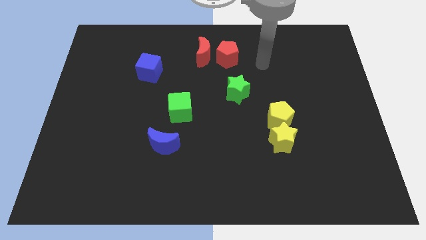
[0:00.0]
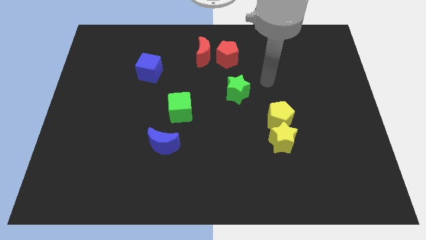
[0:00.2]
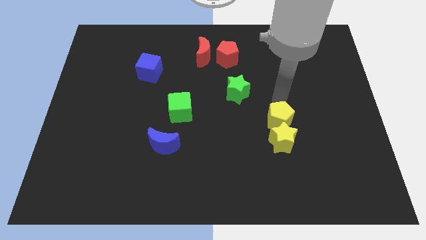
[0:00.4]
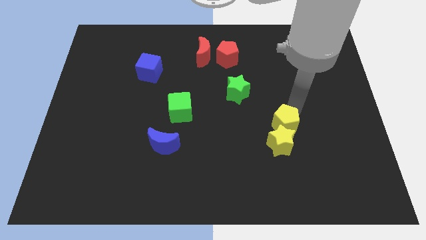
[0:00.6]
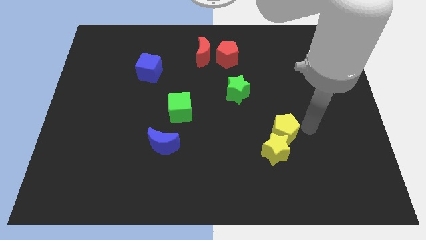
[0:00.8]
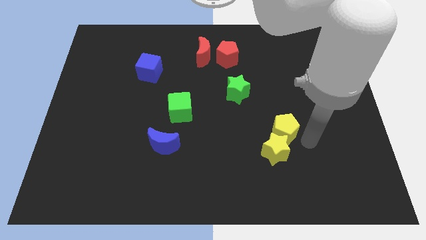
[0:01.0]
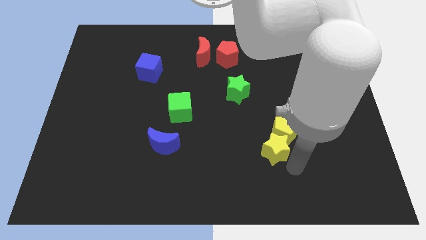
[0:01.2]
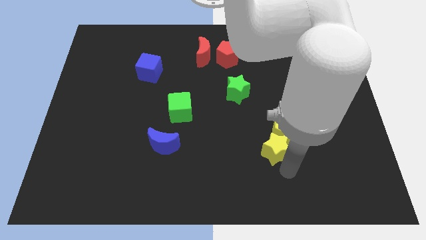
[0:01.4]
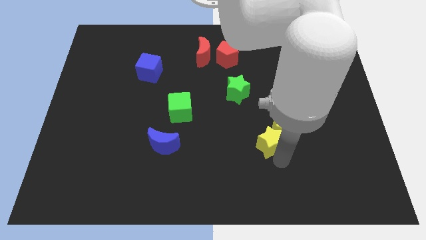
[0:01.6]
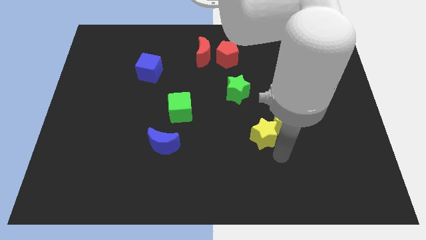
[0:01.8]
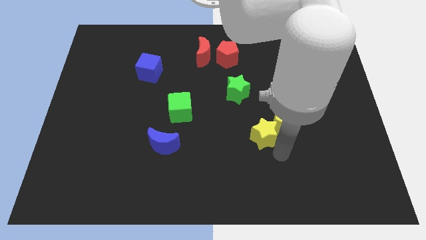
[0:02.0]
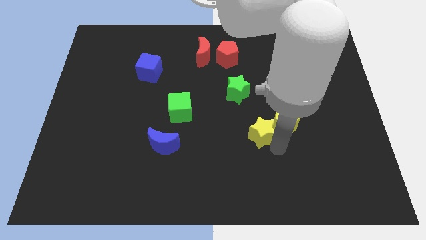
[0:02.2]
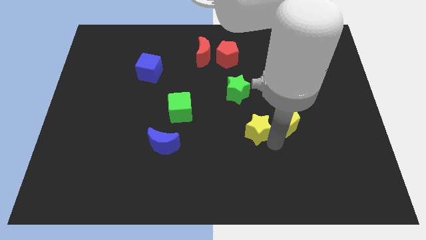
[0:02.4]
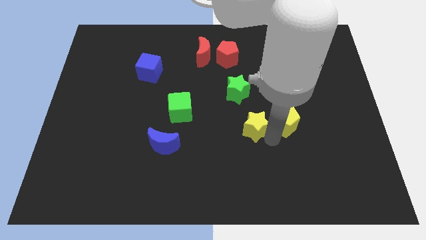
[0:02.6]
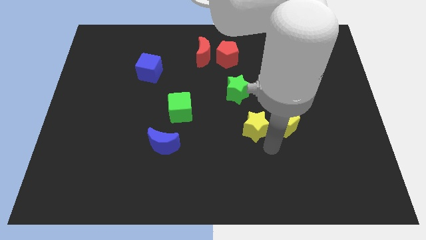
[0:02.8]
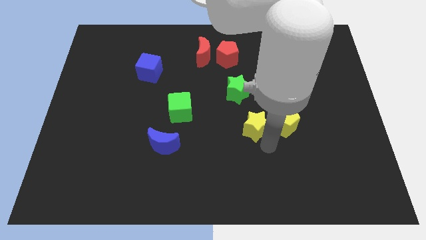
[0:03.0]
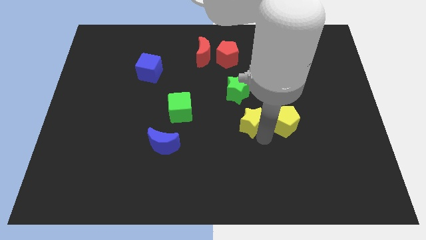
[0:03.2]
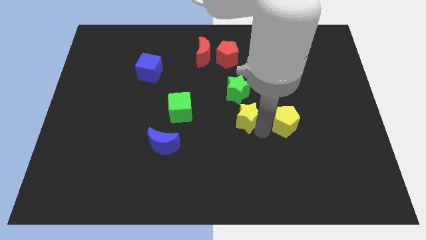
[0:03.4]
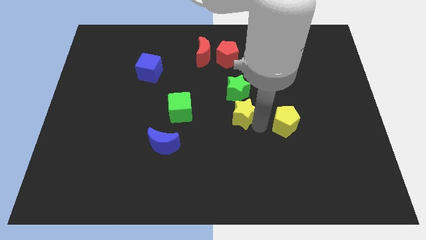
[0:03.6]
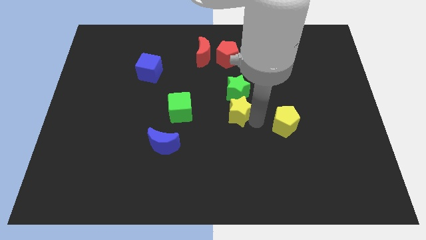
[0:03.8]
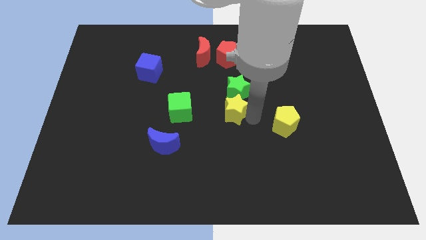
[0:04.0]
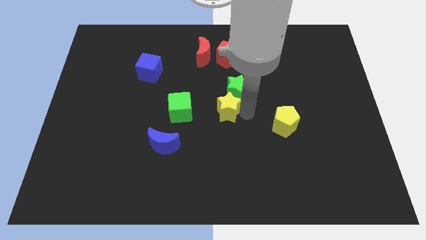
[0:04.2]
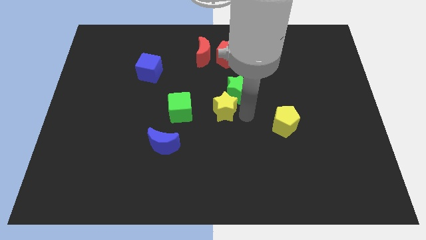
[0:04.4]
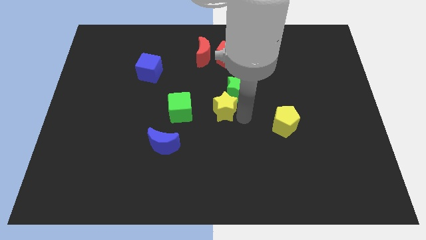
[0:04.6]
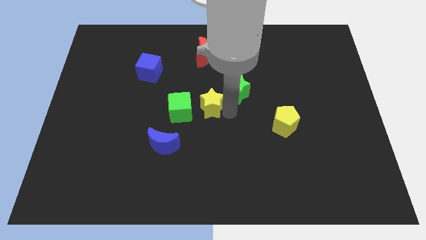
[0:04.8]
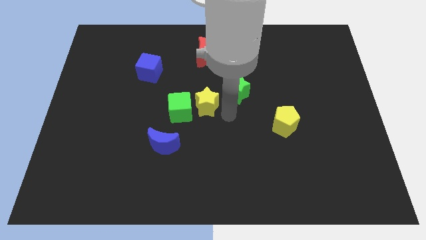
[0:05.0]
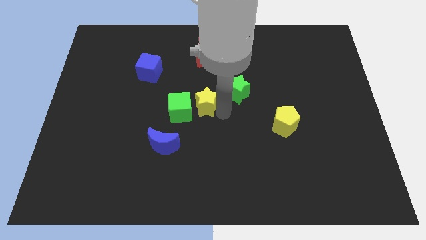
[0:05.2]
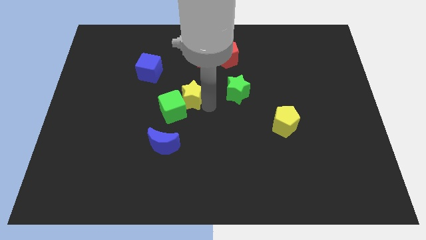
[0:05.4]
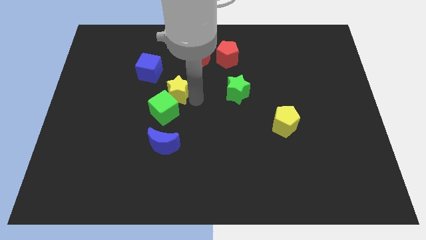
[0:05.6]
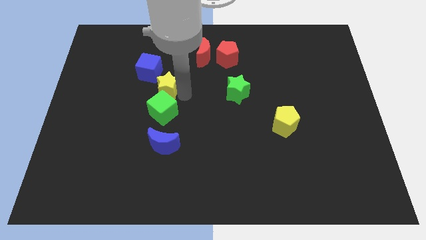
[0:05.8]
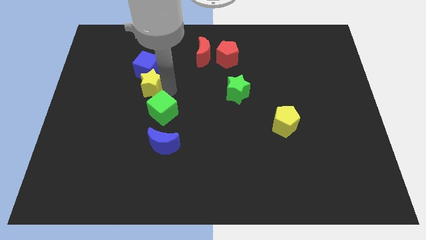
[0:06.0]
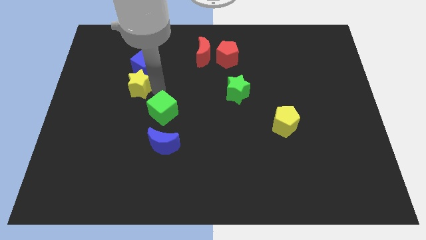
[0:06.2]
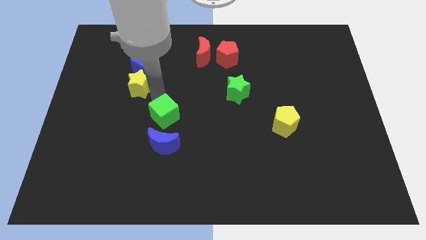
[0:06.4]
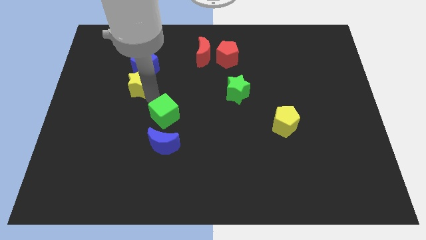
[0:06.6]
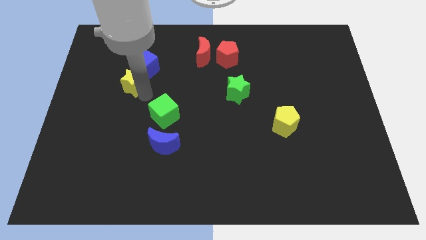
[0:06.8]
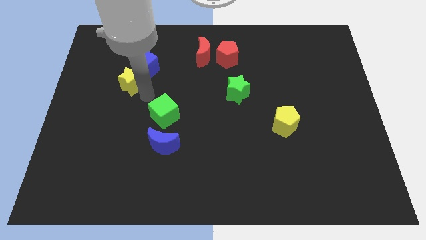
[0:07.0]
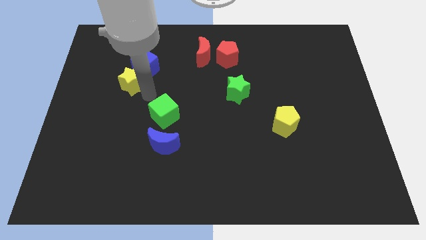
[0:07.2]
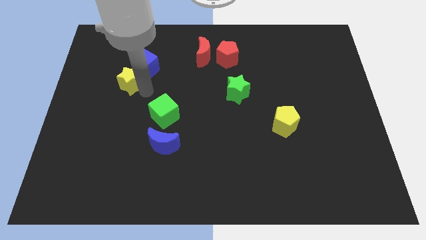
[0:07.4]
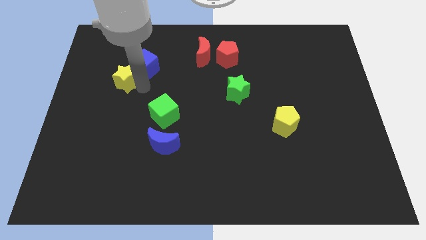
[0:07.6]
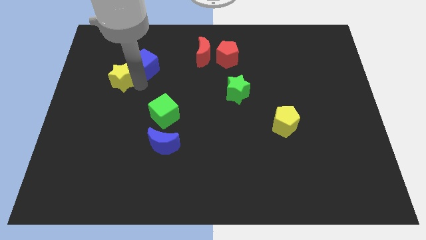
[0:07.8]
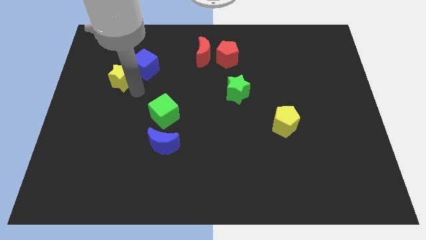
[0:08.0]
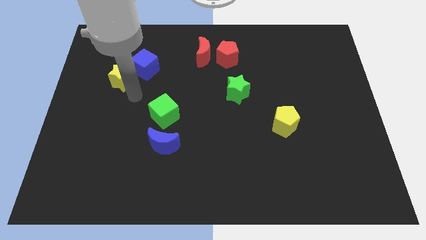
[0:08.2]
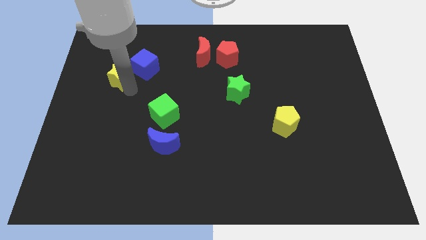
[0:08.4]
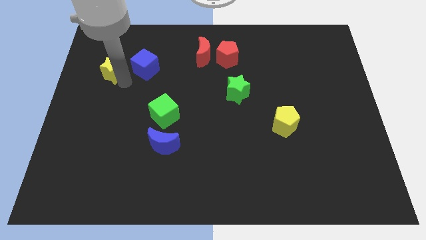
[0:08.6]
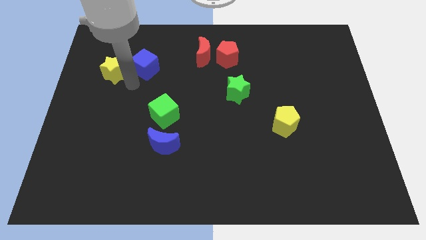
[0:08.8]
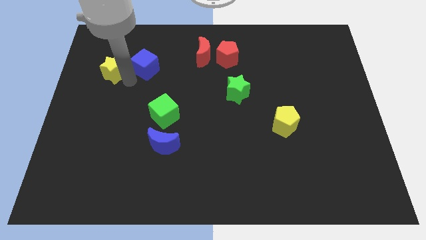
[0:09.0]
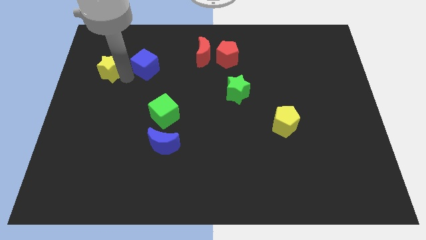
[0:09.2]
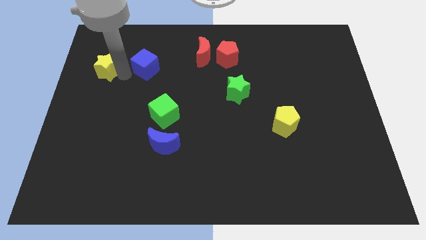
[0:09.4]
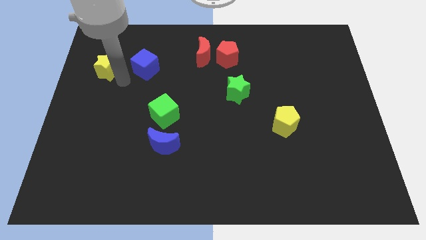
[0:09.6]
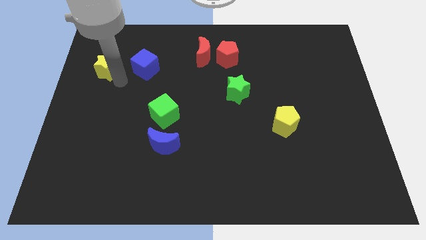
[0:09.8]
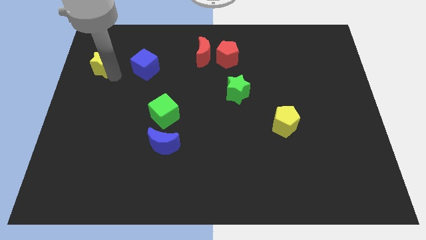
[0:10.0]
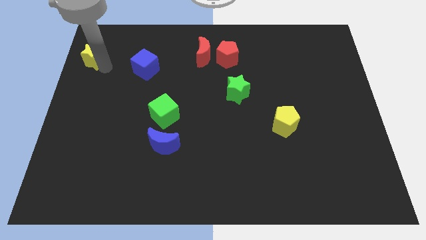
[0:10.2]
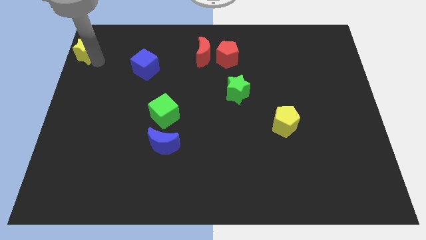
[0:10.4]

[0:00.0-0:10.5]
slide the yellow star to the top left corner

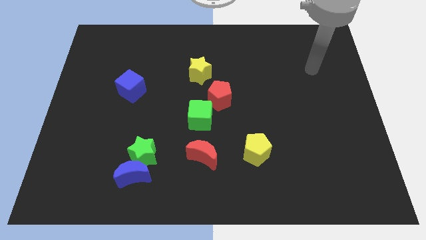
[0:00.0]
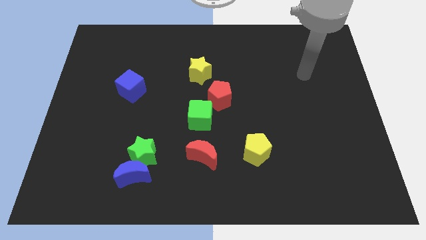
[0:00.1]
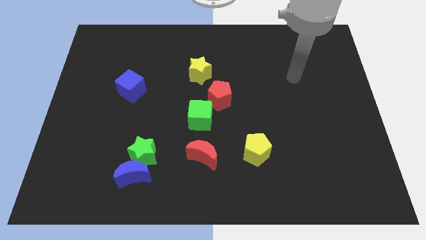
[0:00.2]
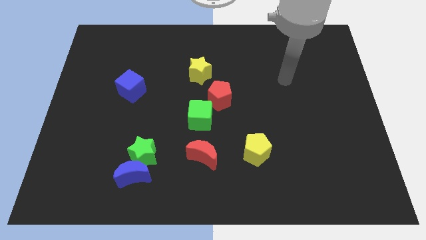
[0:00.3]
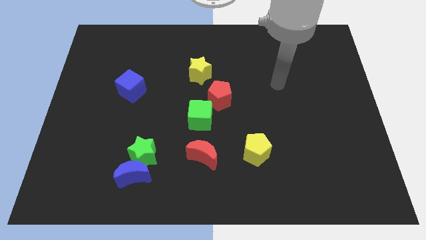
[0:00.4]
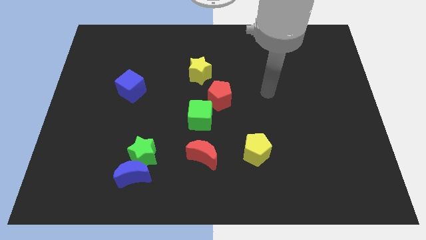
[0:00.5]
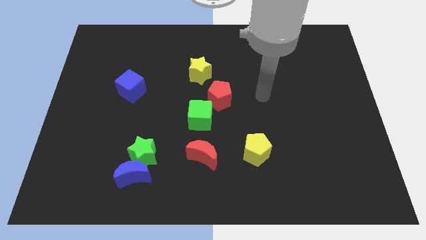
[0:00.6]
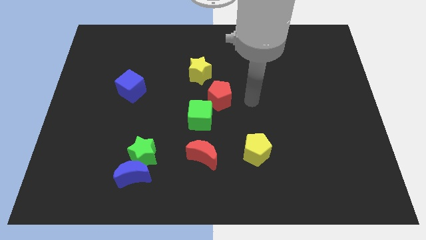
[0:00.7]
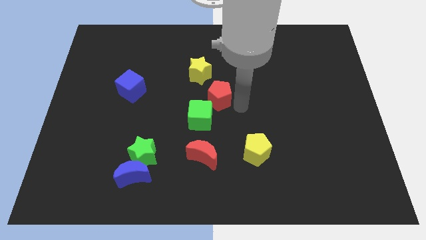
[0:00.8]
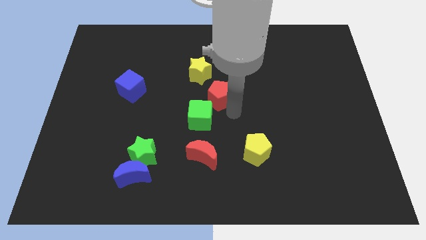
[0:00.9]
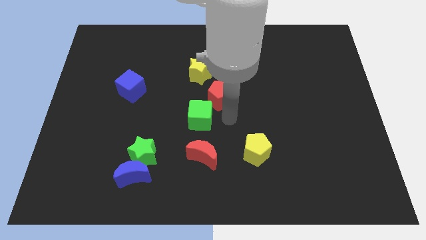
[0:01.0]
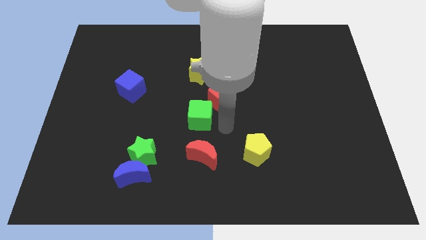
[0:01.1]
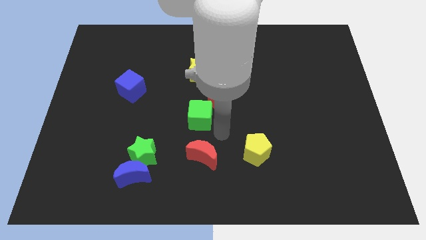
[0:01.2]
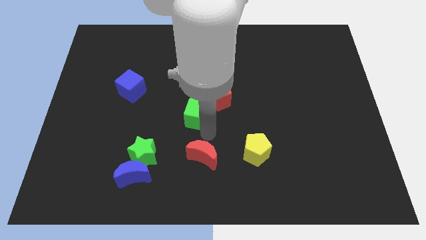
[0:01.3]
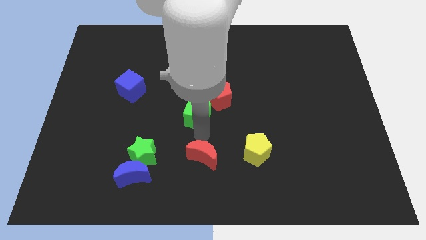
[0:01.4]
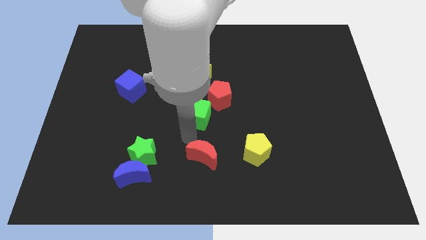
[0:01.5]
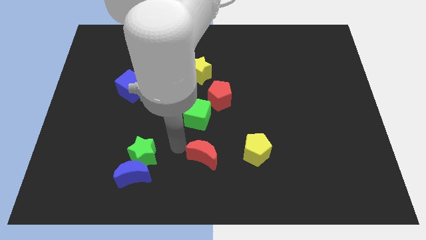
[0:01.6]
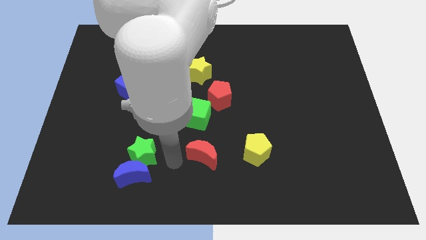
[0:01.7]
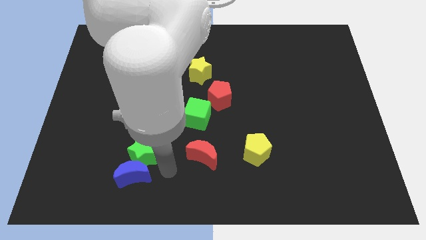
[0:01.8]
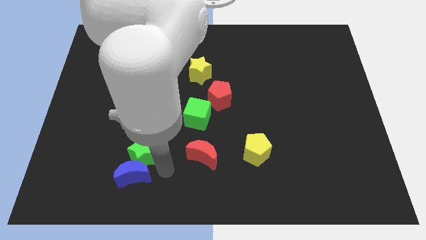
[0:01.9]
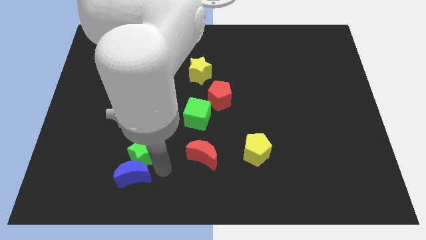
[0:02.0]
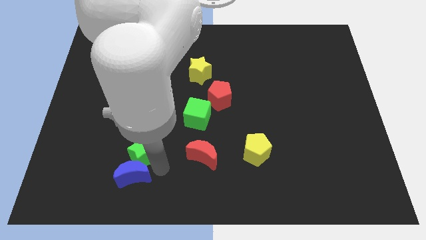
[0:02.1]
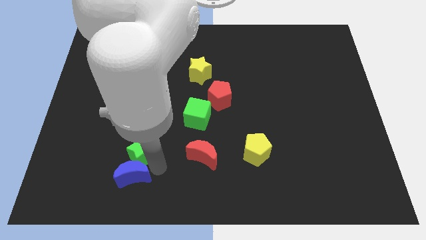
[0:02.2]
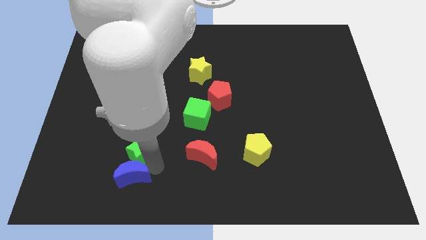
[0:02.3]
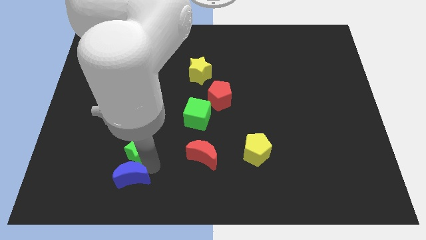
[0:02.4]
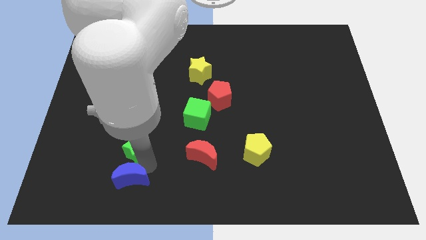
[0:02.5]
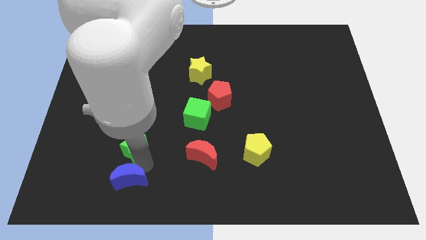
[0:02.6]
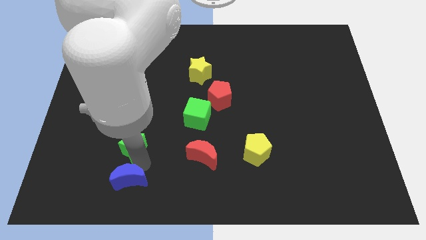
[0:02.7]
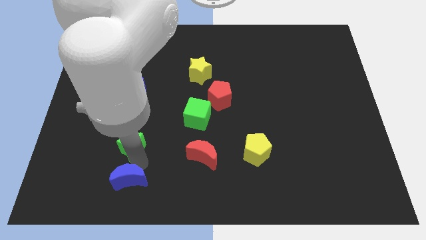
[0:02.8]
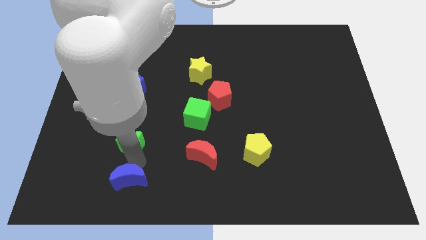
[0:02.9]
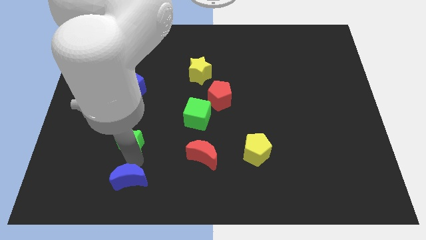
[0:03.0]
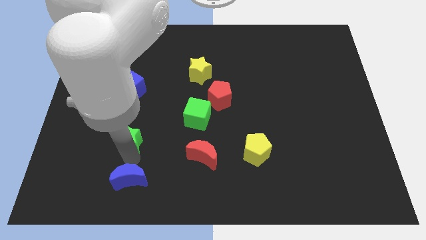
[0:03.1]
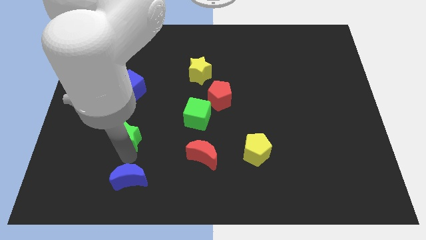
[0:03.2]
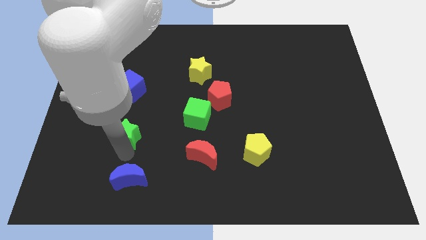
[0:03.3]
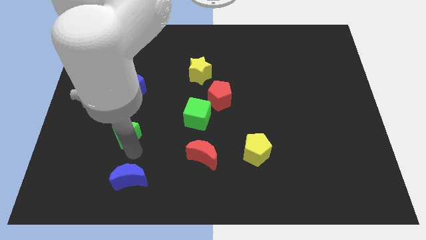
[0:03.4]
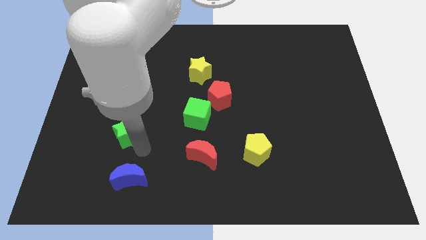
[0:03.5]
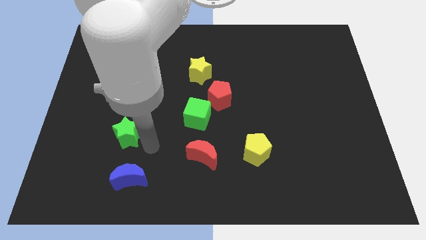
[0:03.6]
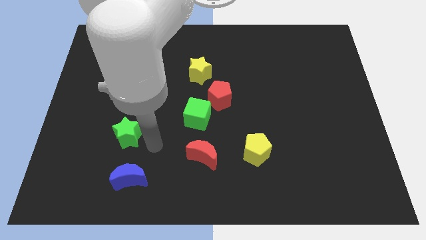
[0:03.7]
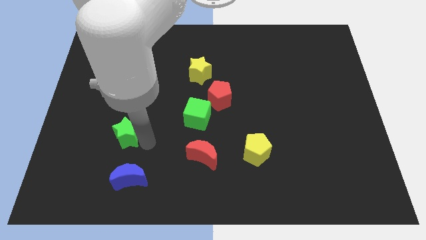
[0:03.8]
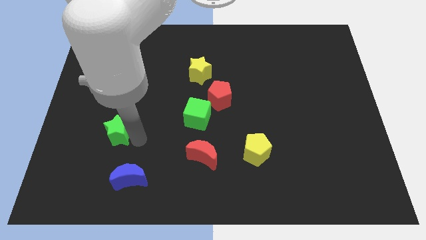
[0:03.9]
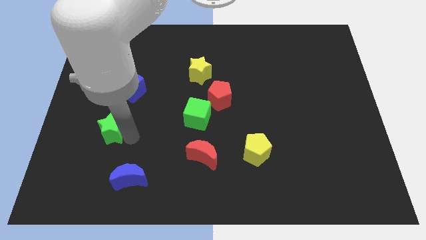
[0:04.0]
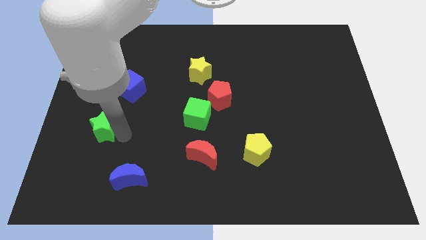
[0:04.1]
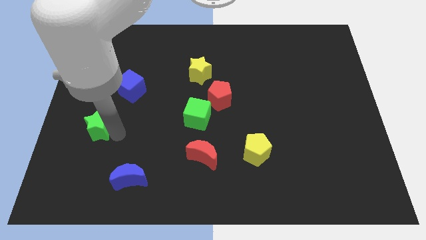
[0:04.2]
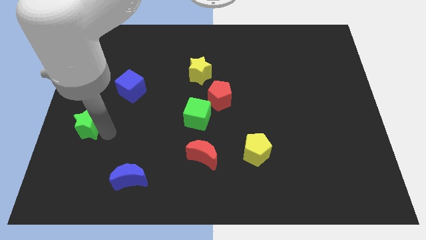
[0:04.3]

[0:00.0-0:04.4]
slide the green star to the left side
